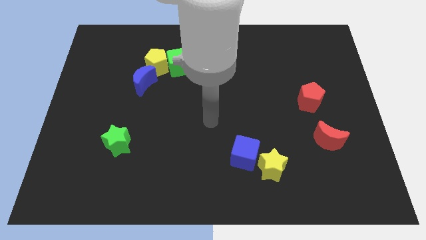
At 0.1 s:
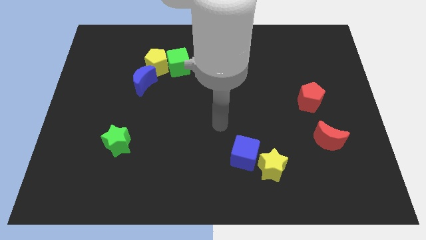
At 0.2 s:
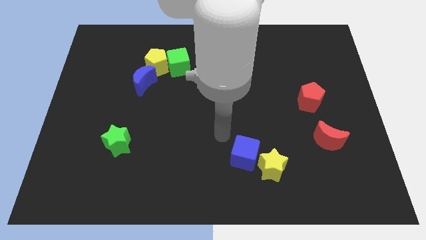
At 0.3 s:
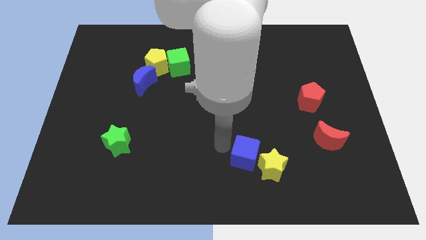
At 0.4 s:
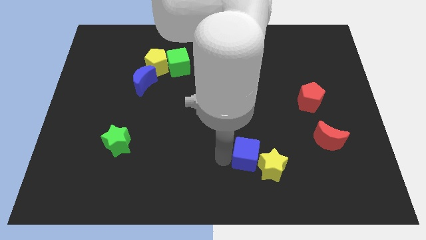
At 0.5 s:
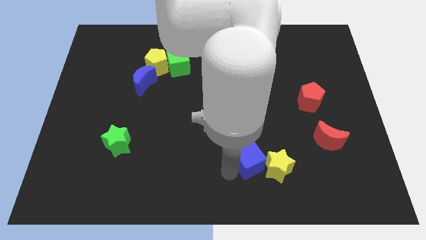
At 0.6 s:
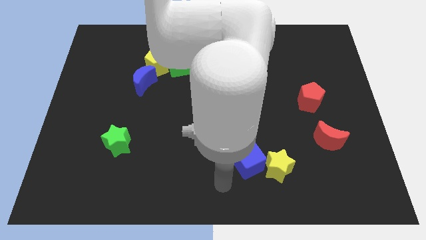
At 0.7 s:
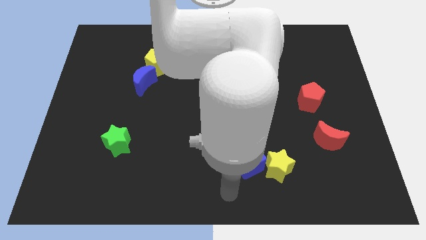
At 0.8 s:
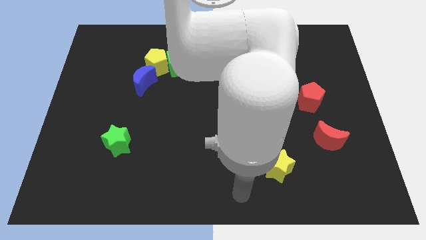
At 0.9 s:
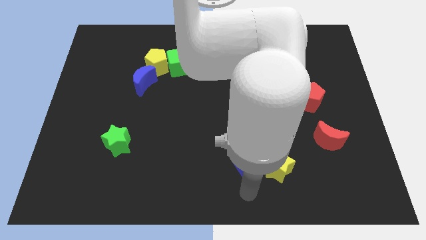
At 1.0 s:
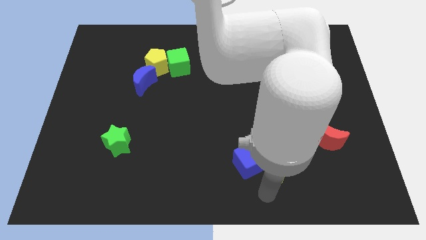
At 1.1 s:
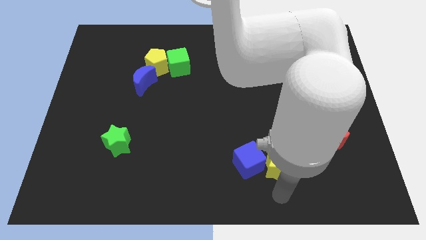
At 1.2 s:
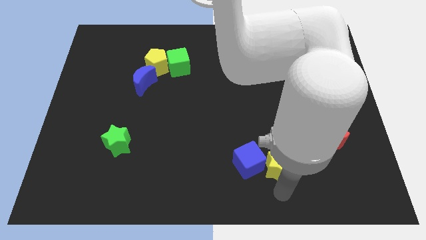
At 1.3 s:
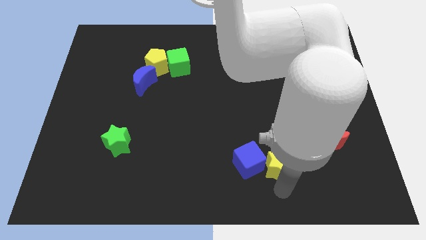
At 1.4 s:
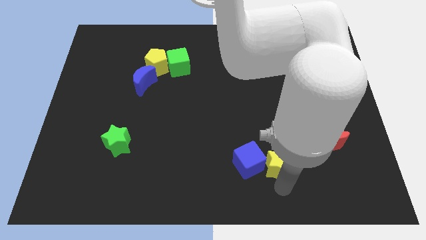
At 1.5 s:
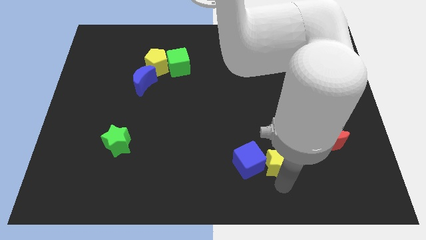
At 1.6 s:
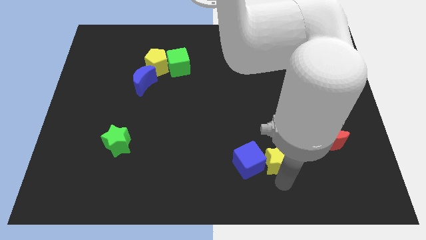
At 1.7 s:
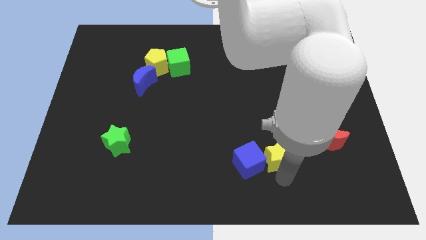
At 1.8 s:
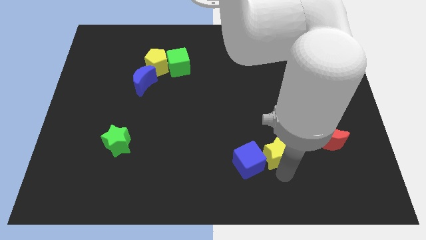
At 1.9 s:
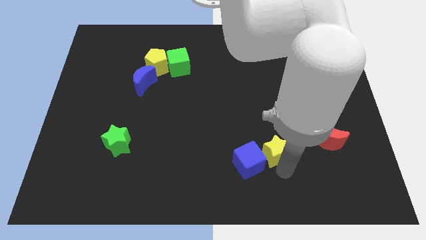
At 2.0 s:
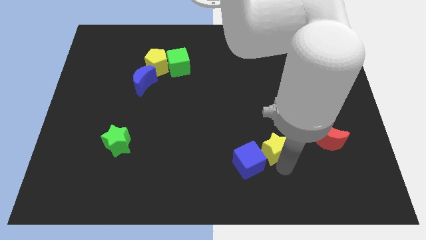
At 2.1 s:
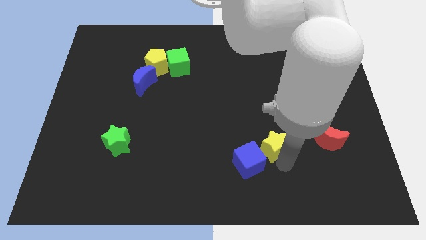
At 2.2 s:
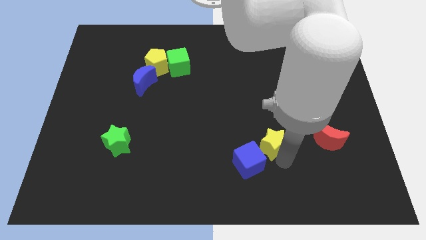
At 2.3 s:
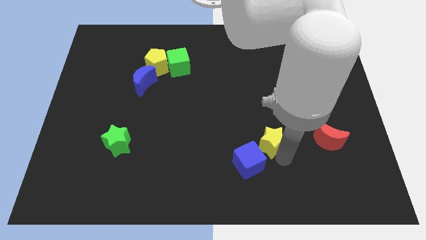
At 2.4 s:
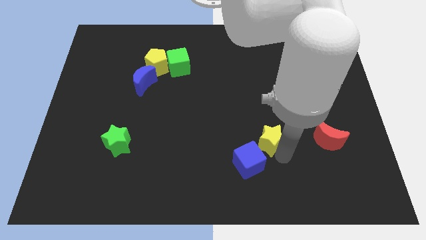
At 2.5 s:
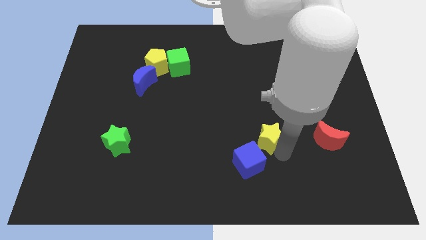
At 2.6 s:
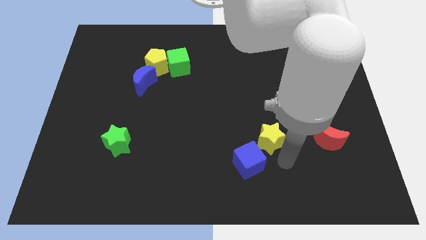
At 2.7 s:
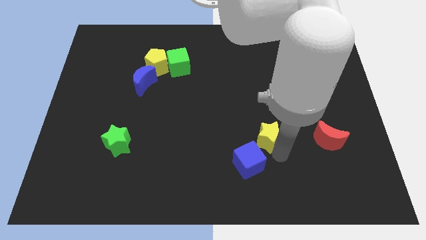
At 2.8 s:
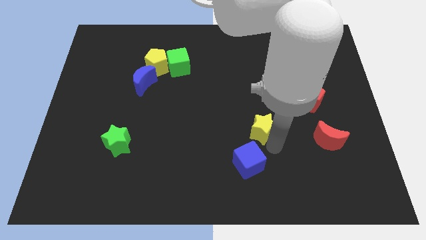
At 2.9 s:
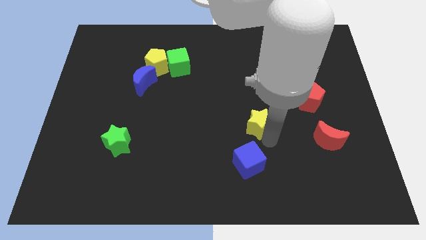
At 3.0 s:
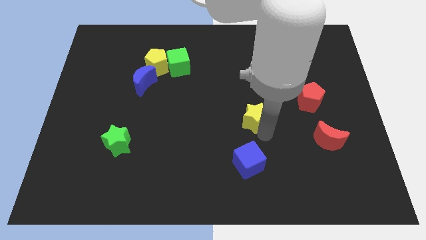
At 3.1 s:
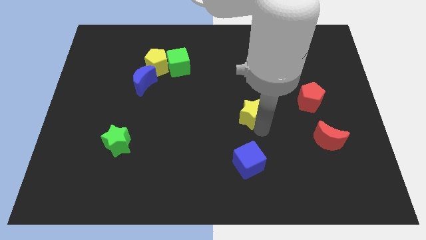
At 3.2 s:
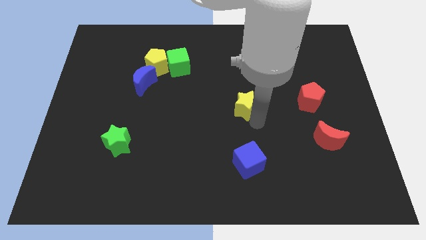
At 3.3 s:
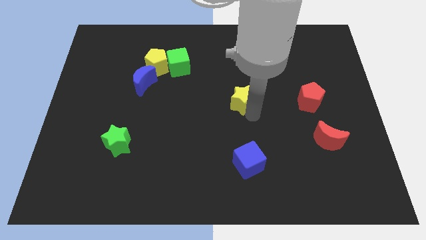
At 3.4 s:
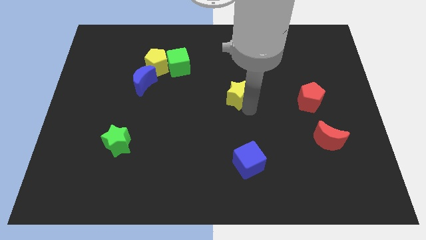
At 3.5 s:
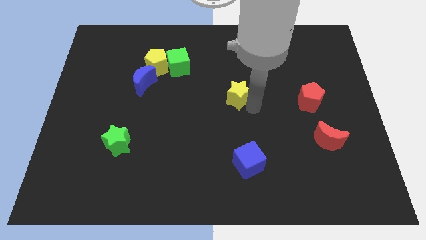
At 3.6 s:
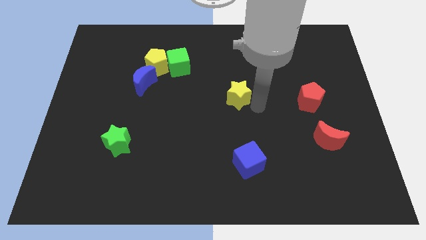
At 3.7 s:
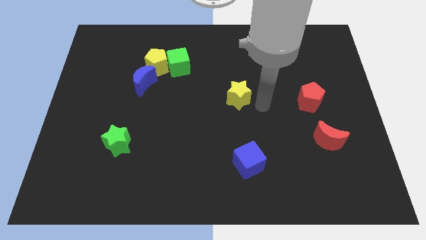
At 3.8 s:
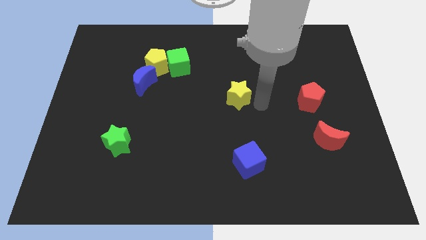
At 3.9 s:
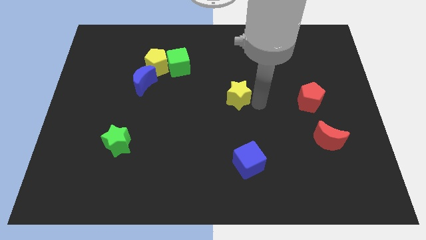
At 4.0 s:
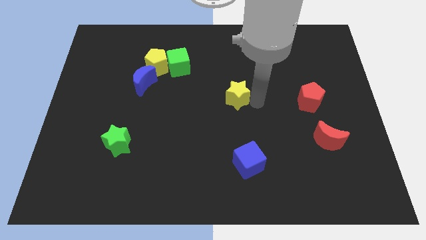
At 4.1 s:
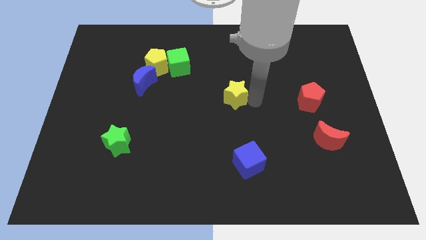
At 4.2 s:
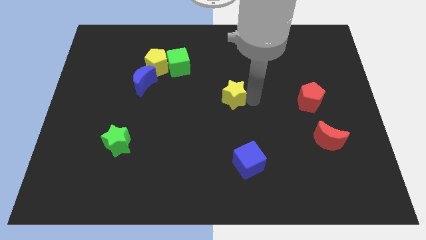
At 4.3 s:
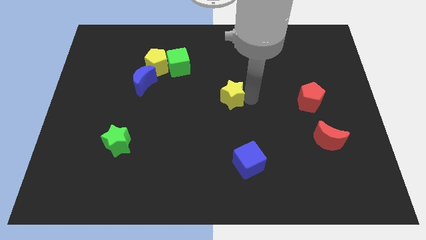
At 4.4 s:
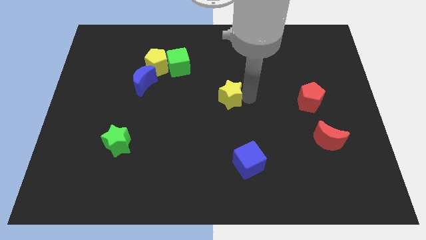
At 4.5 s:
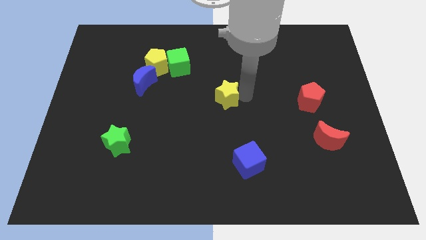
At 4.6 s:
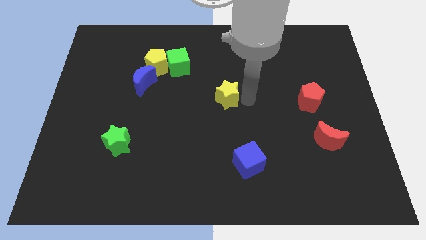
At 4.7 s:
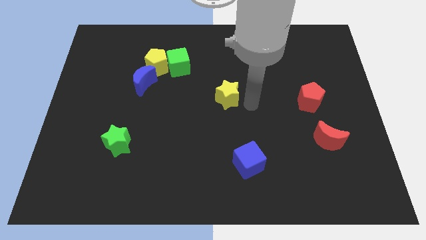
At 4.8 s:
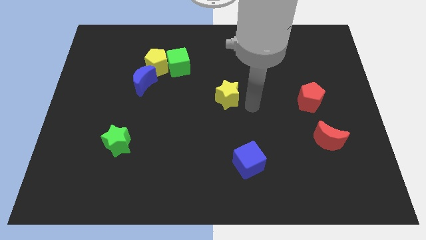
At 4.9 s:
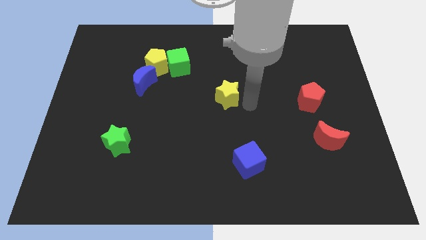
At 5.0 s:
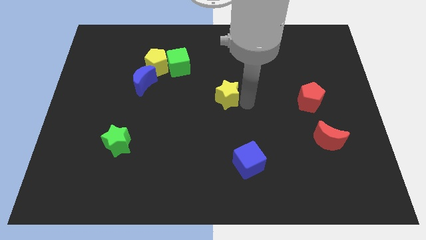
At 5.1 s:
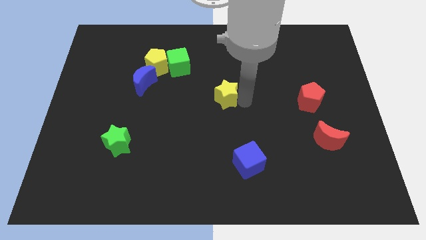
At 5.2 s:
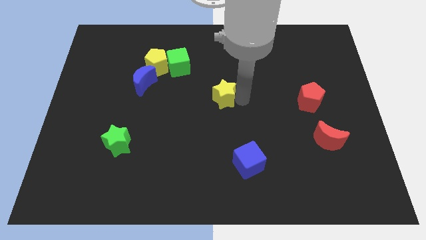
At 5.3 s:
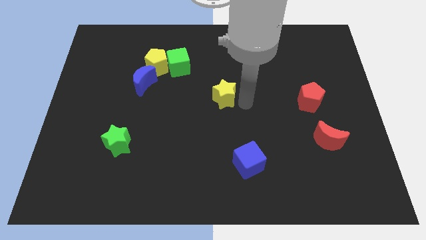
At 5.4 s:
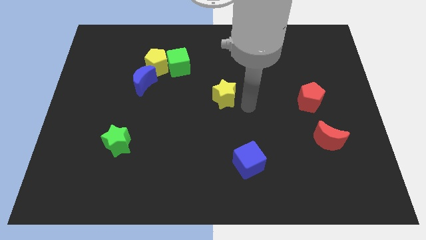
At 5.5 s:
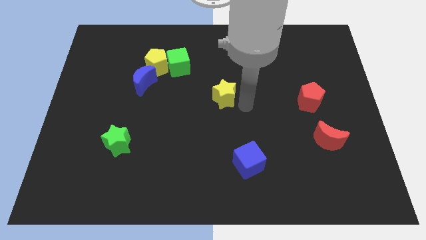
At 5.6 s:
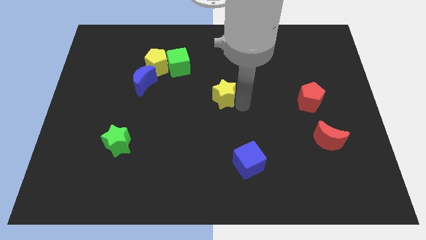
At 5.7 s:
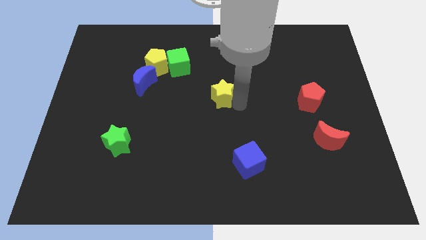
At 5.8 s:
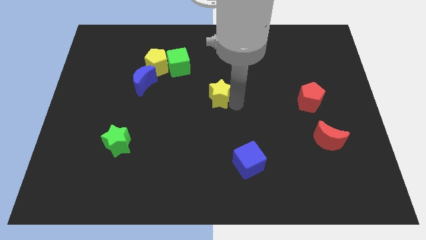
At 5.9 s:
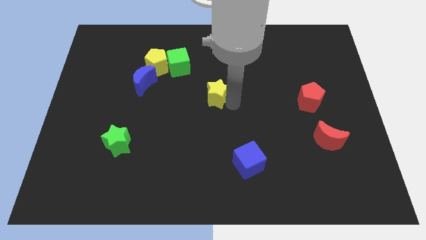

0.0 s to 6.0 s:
push the yellow star upwards and to the left

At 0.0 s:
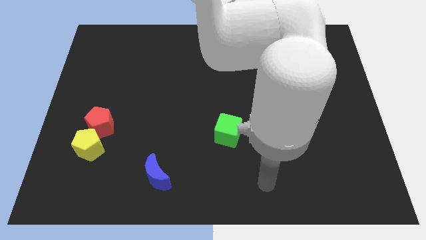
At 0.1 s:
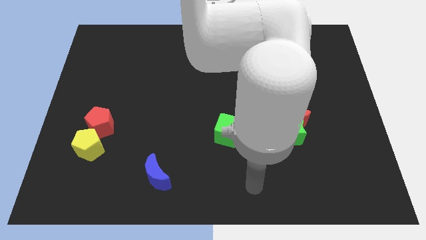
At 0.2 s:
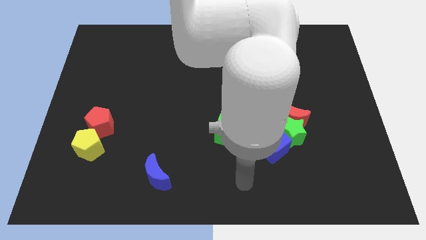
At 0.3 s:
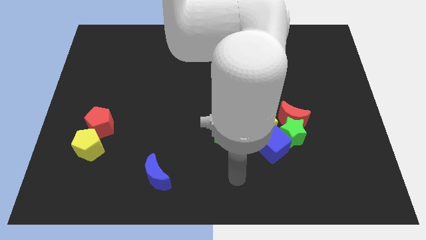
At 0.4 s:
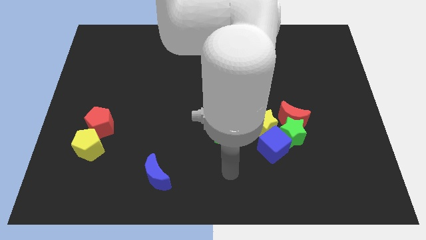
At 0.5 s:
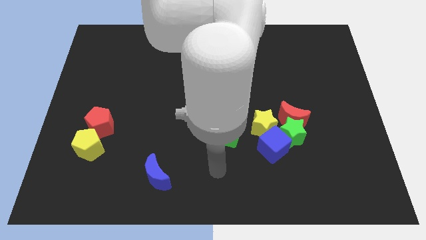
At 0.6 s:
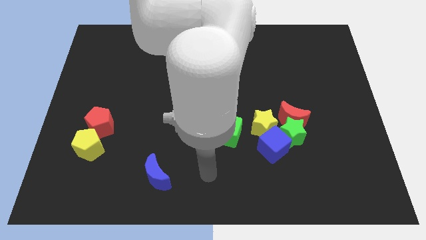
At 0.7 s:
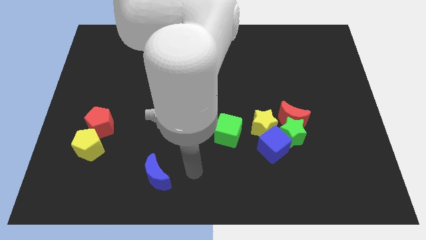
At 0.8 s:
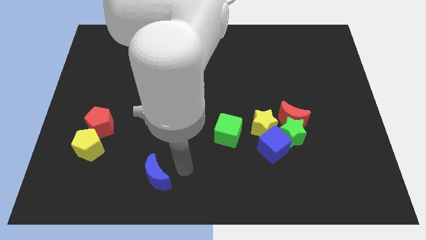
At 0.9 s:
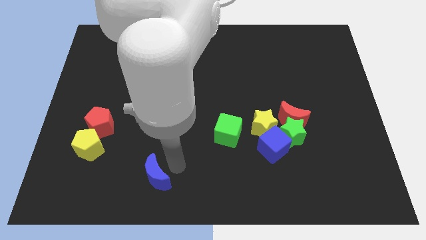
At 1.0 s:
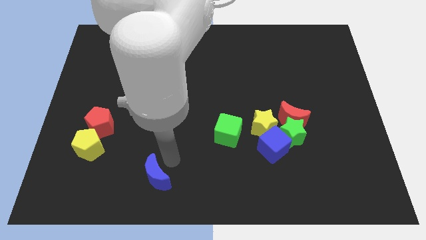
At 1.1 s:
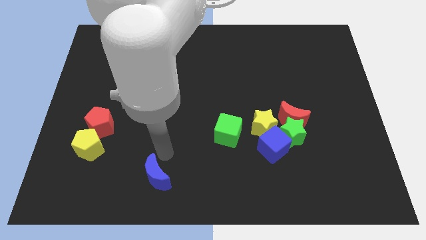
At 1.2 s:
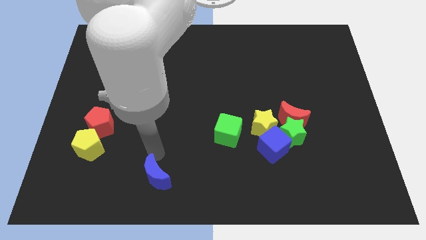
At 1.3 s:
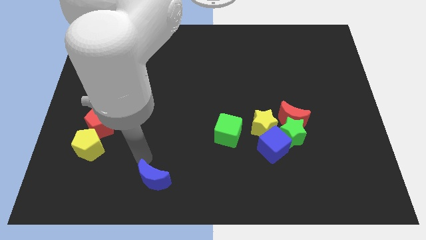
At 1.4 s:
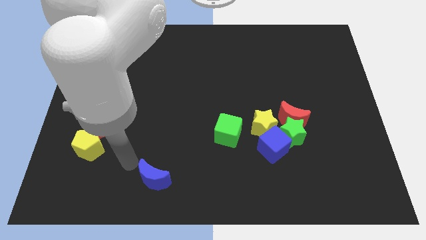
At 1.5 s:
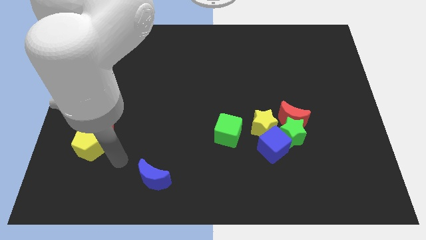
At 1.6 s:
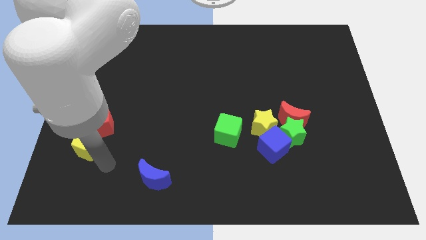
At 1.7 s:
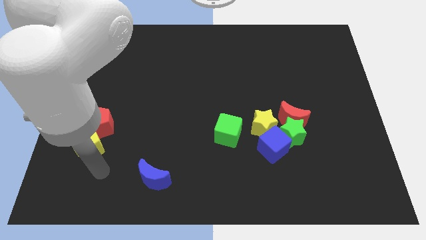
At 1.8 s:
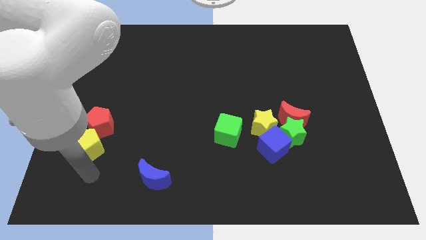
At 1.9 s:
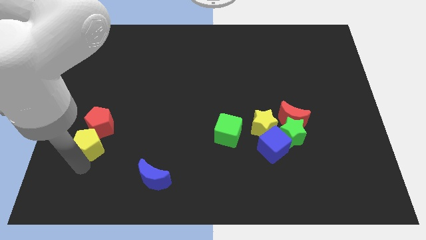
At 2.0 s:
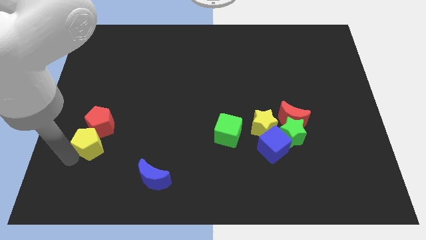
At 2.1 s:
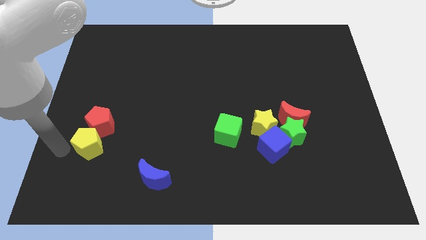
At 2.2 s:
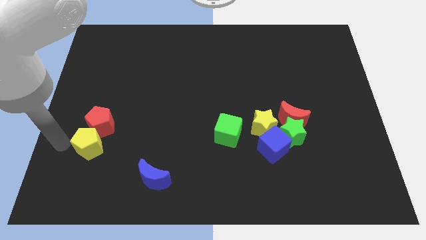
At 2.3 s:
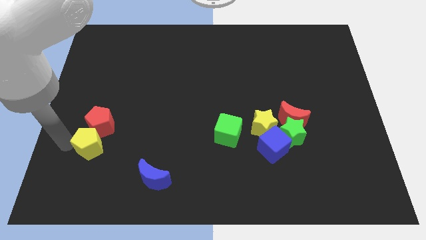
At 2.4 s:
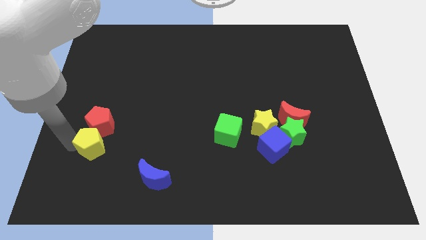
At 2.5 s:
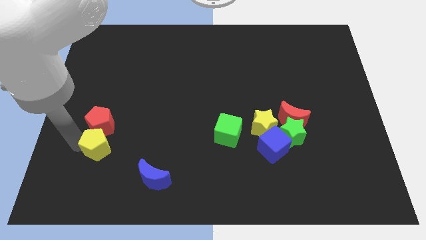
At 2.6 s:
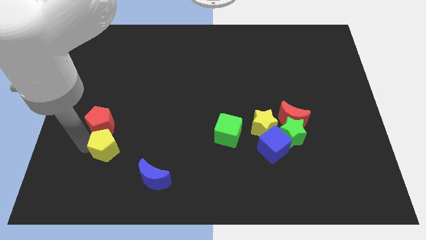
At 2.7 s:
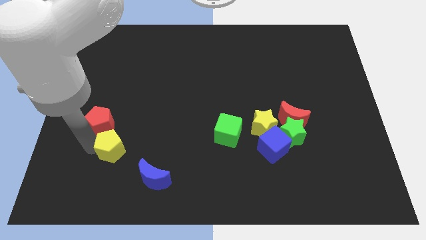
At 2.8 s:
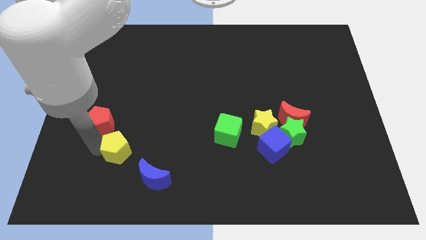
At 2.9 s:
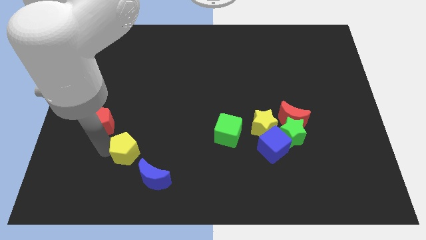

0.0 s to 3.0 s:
push the yellow pentagon right somewhat
